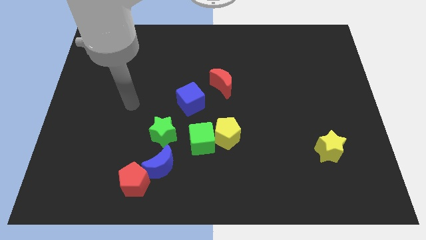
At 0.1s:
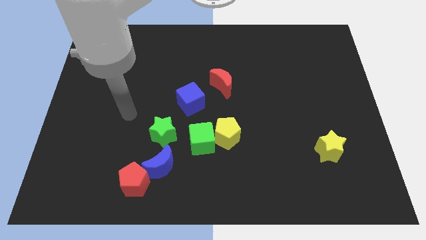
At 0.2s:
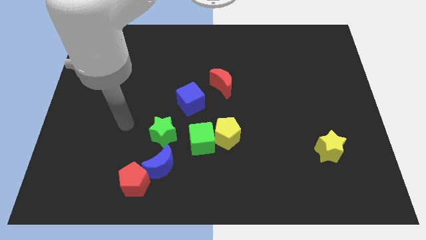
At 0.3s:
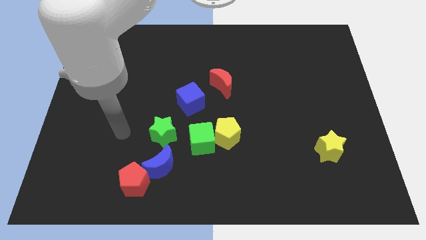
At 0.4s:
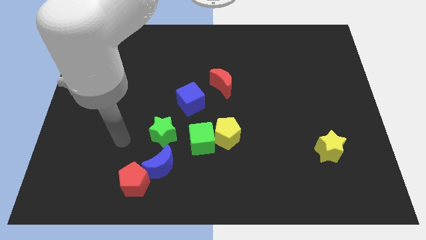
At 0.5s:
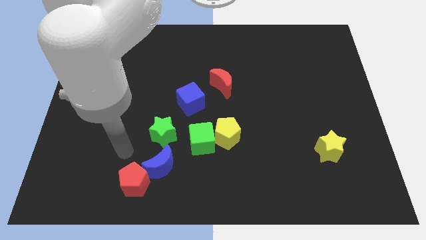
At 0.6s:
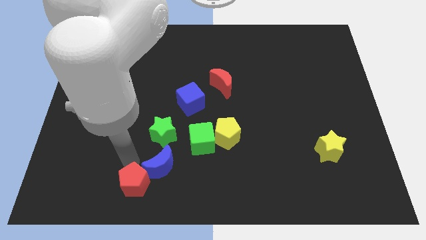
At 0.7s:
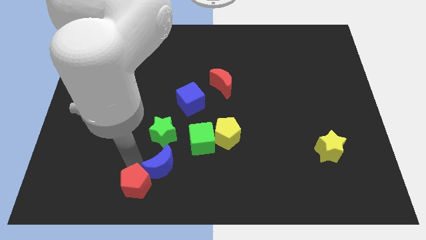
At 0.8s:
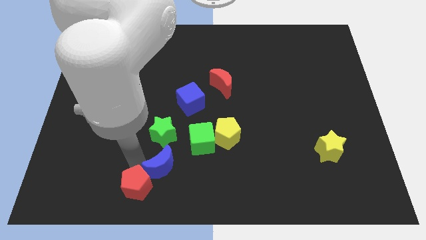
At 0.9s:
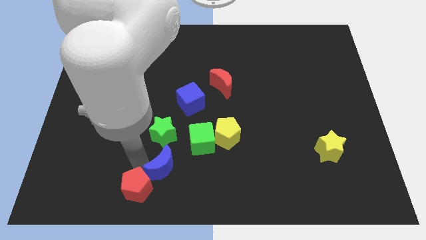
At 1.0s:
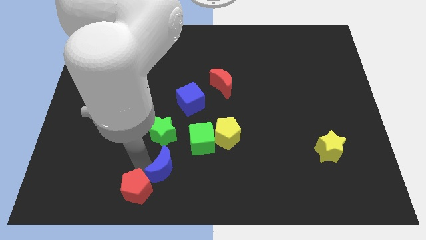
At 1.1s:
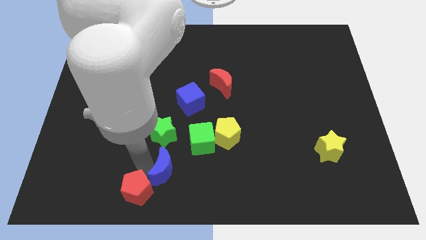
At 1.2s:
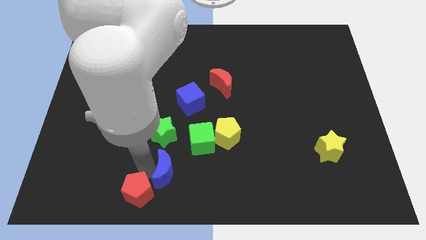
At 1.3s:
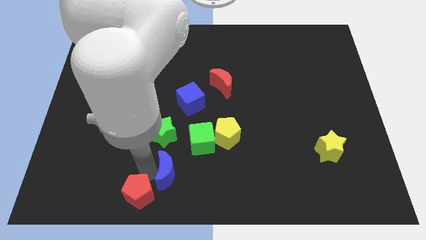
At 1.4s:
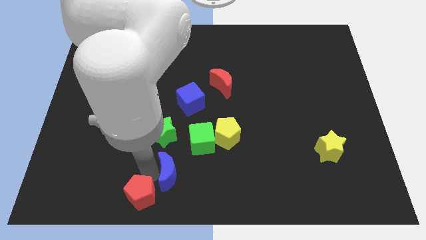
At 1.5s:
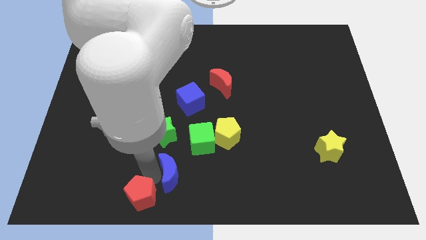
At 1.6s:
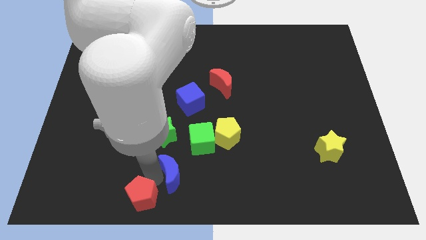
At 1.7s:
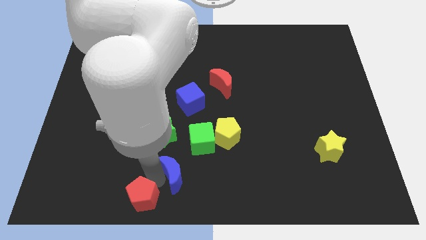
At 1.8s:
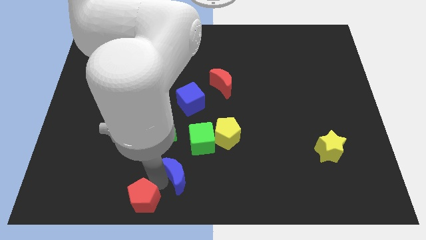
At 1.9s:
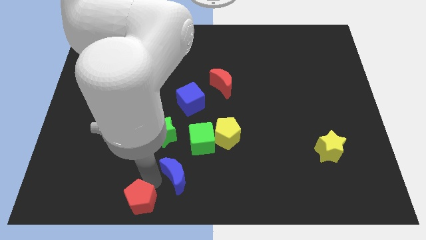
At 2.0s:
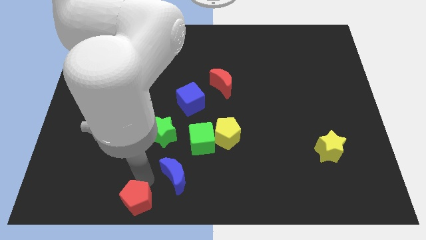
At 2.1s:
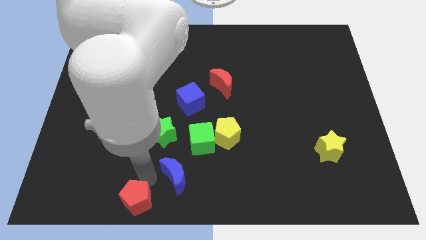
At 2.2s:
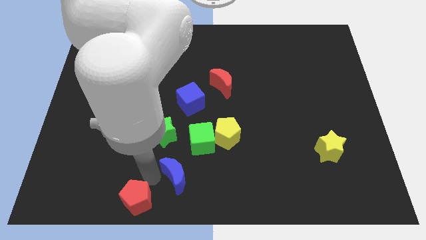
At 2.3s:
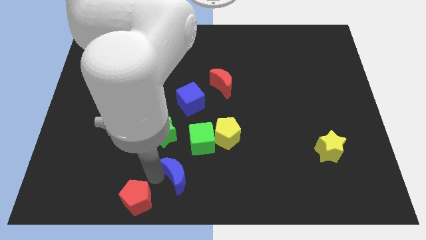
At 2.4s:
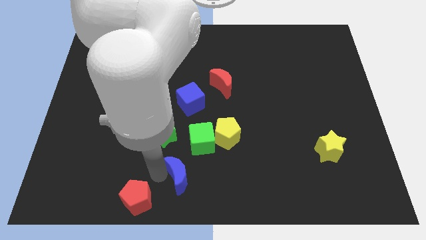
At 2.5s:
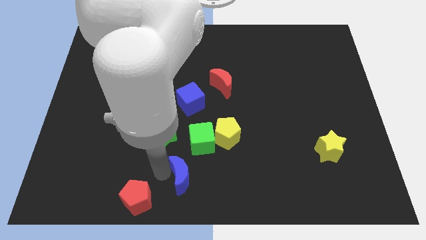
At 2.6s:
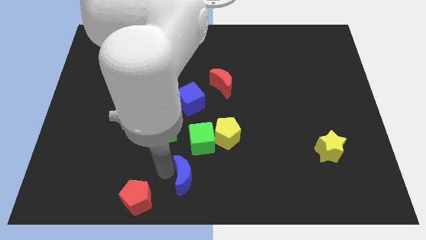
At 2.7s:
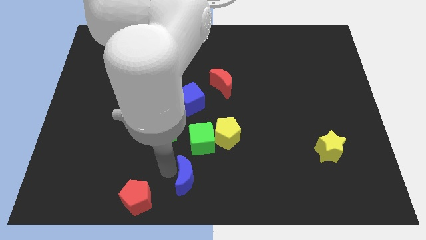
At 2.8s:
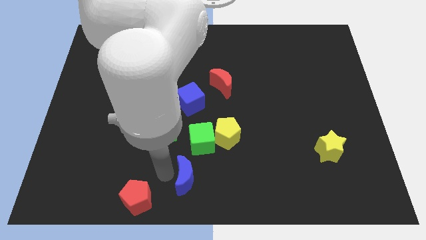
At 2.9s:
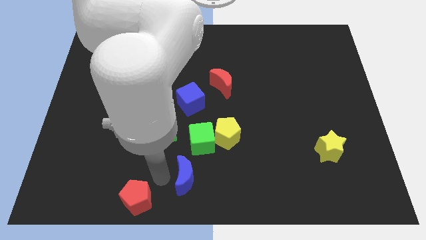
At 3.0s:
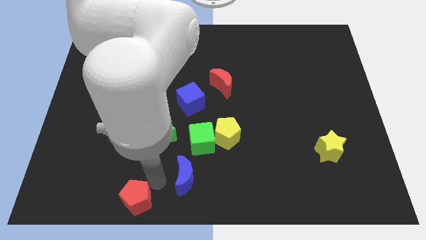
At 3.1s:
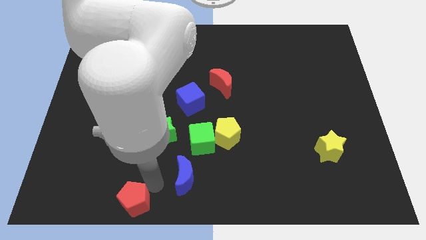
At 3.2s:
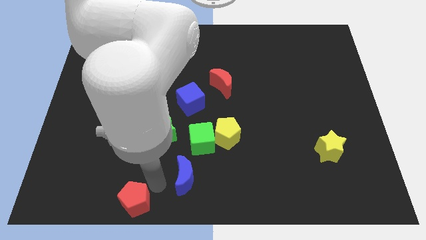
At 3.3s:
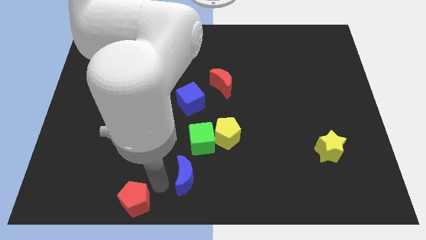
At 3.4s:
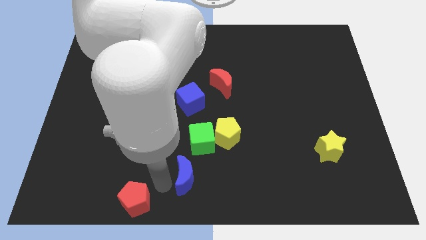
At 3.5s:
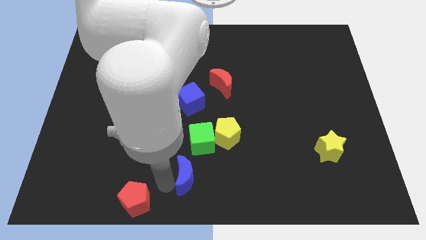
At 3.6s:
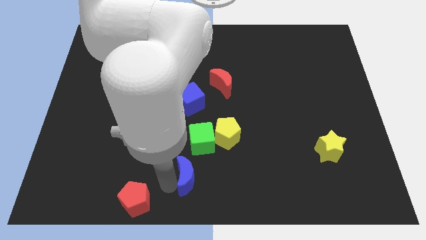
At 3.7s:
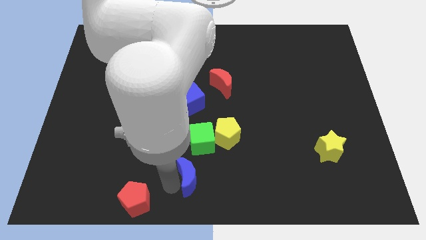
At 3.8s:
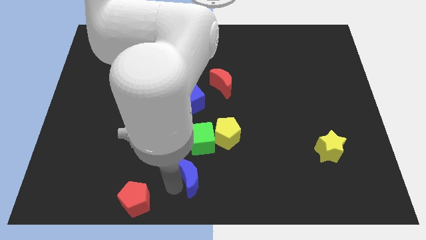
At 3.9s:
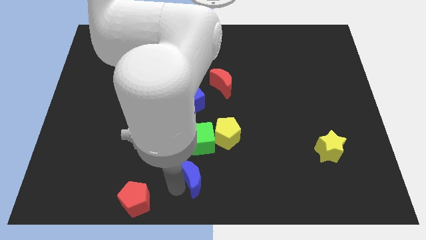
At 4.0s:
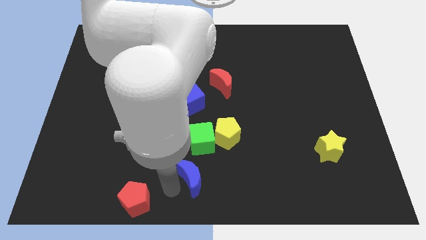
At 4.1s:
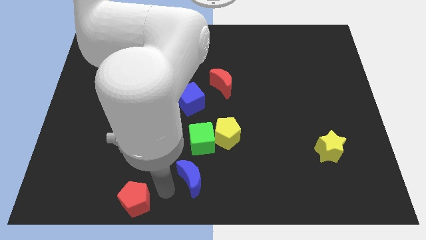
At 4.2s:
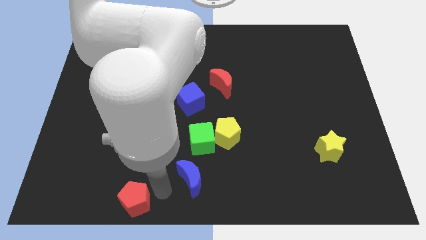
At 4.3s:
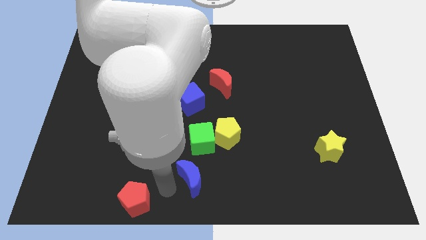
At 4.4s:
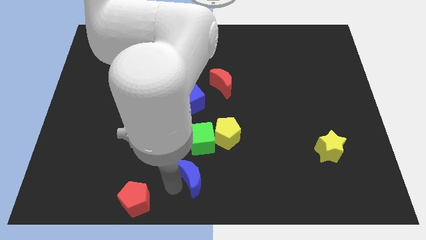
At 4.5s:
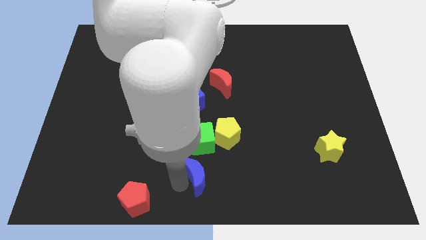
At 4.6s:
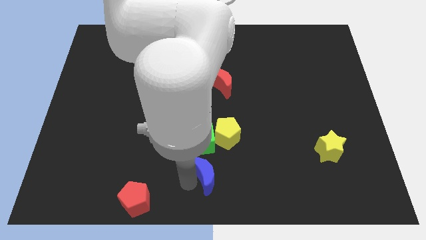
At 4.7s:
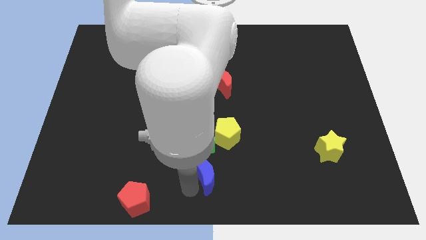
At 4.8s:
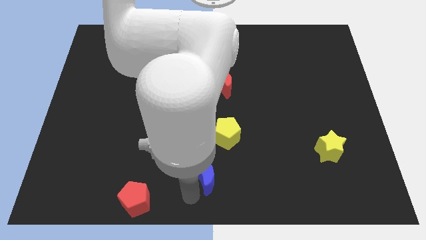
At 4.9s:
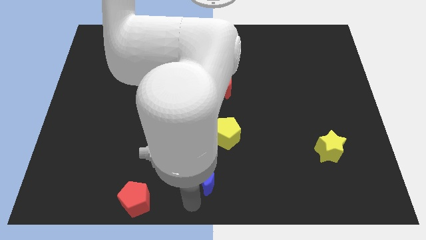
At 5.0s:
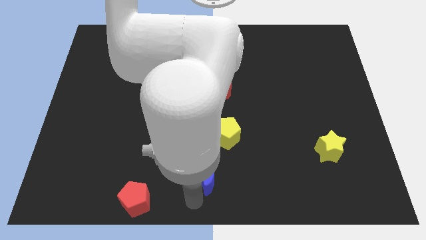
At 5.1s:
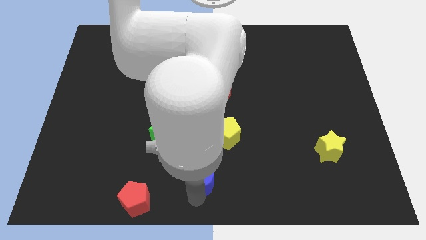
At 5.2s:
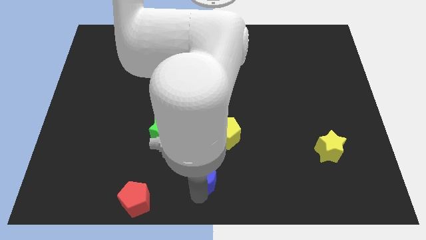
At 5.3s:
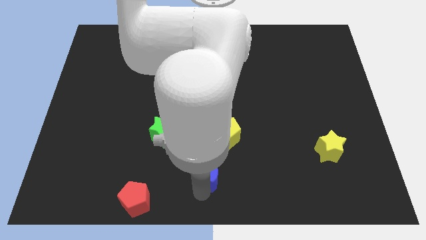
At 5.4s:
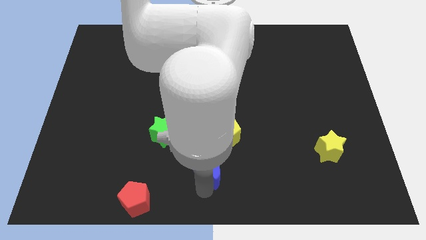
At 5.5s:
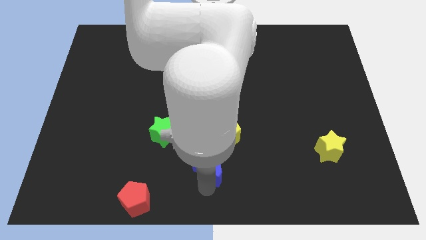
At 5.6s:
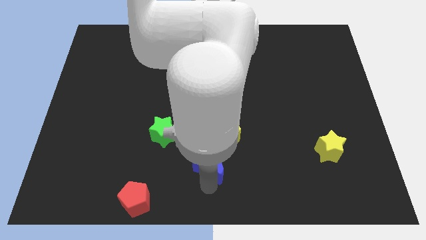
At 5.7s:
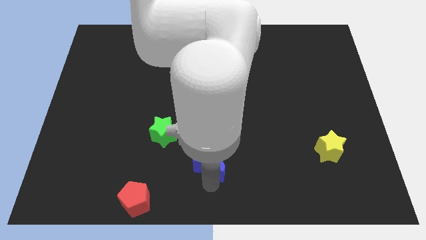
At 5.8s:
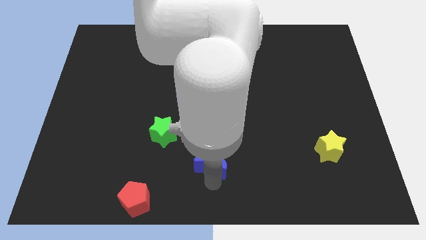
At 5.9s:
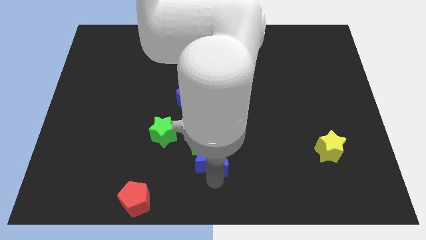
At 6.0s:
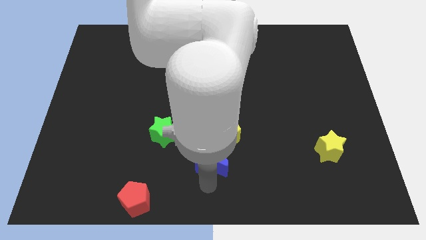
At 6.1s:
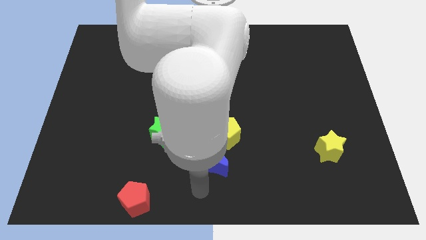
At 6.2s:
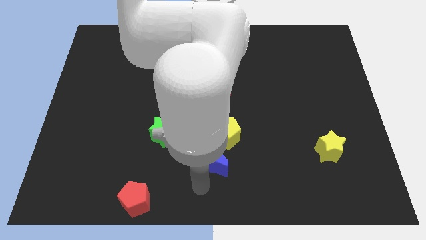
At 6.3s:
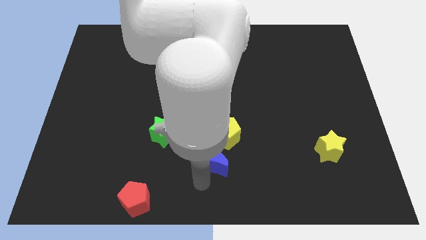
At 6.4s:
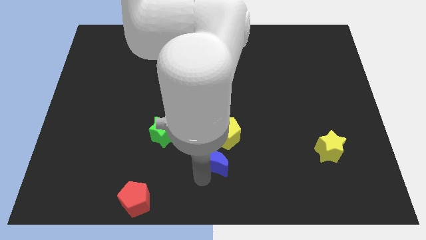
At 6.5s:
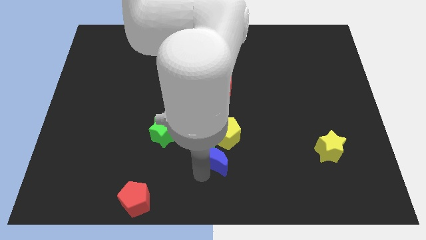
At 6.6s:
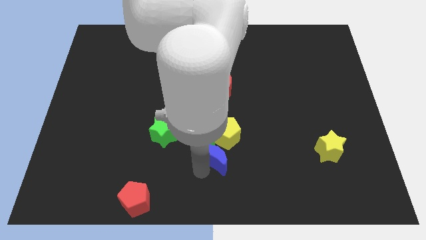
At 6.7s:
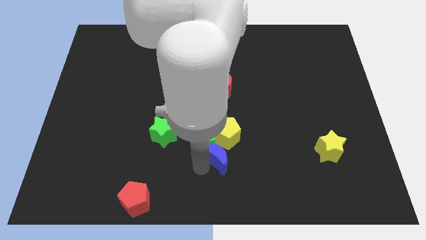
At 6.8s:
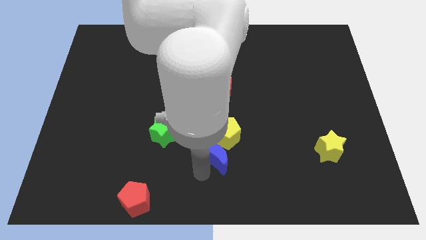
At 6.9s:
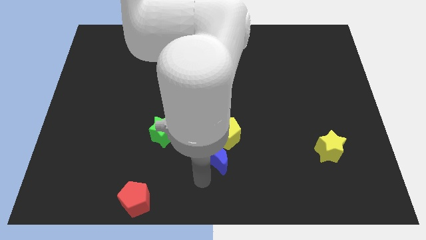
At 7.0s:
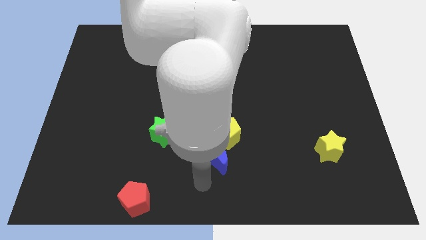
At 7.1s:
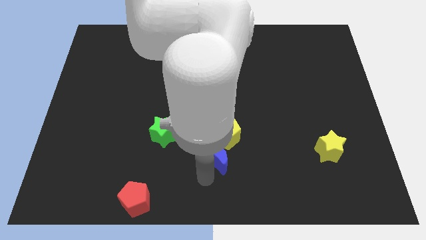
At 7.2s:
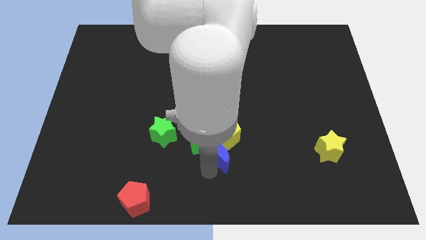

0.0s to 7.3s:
put the blue moon towards the yellow pentagon
